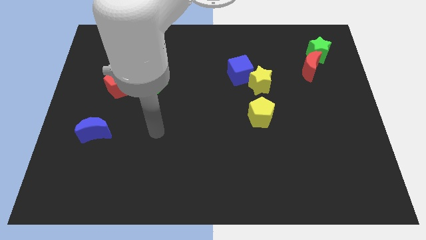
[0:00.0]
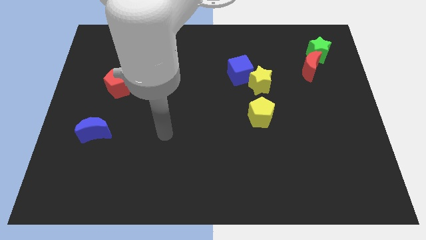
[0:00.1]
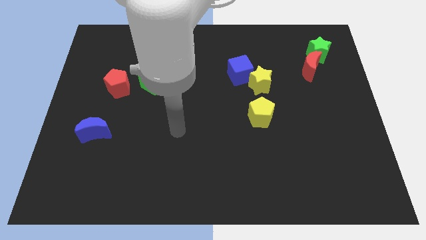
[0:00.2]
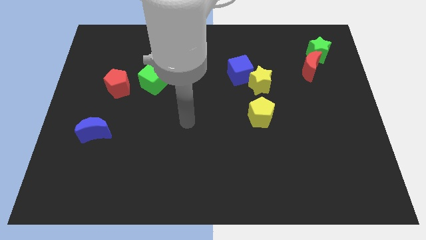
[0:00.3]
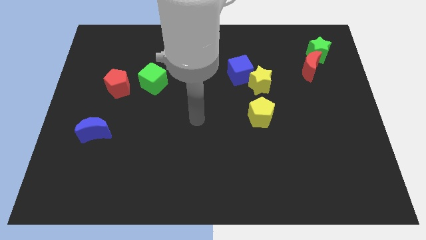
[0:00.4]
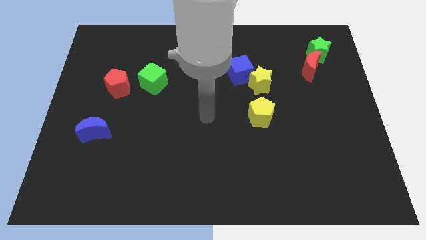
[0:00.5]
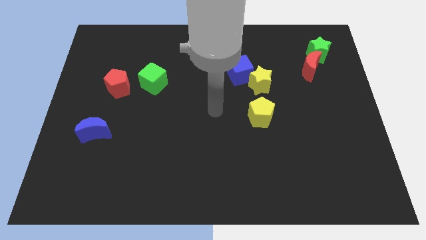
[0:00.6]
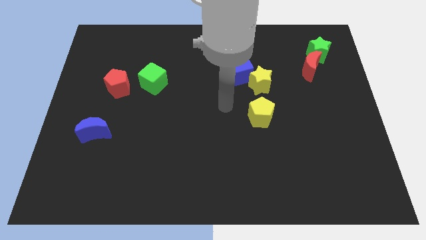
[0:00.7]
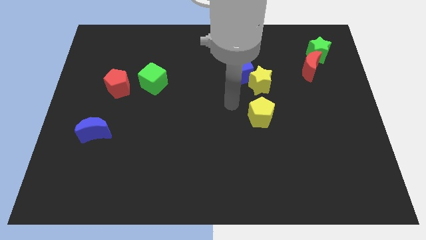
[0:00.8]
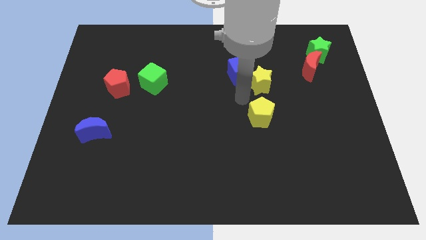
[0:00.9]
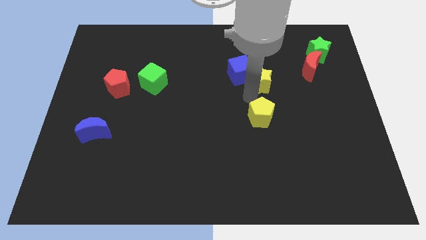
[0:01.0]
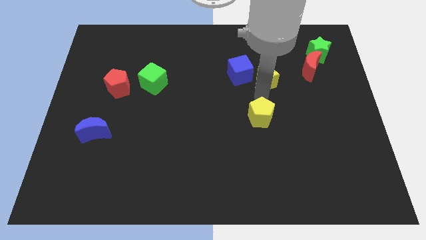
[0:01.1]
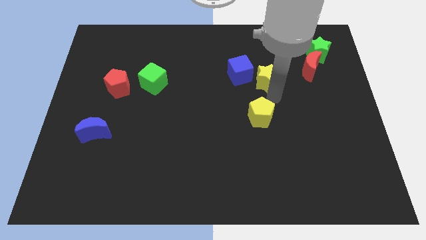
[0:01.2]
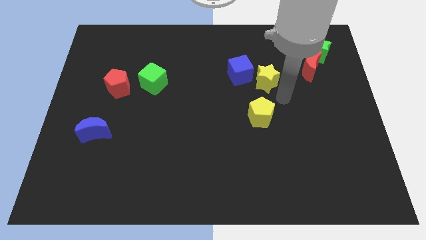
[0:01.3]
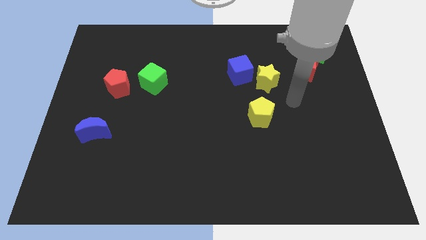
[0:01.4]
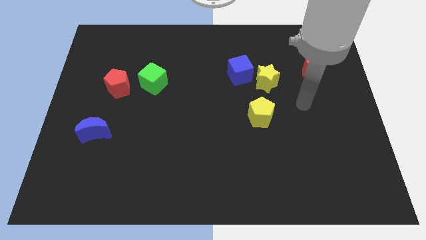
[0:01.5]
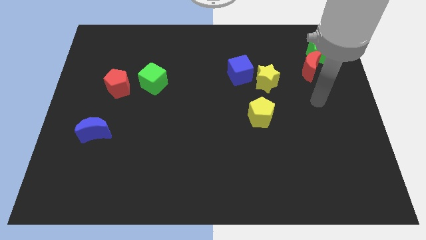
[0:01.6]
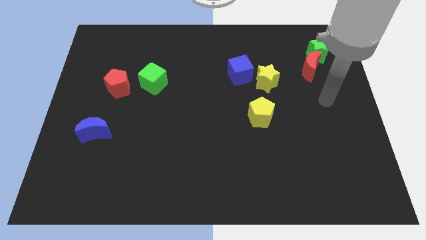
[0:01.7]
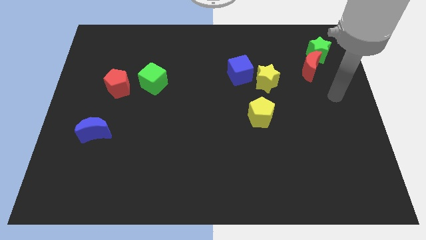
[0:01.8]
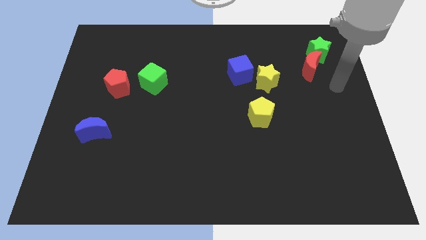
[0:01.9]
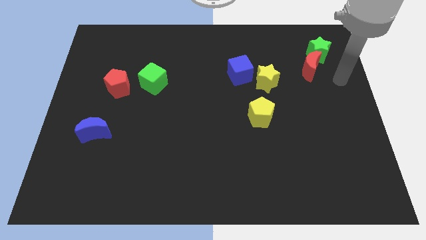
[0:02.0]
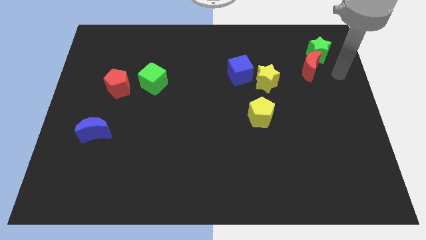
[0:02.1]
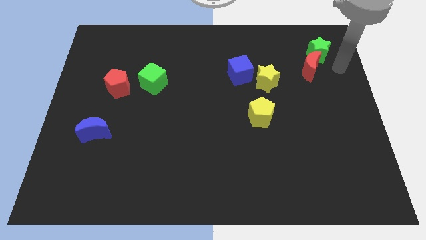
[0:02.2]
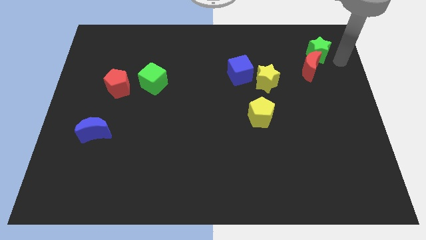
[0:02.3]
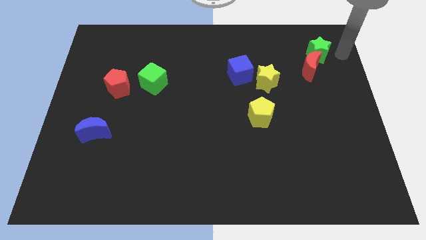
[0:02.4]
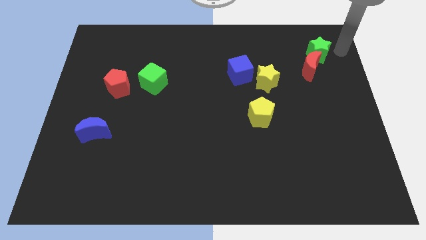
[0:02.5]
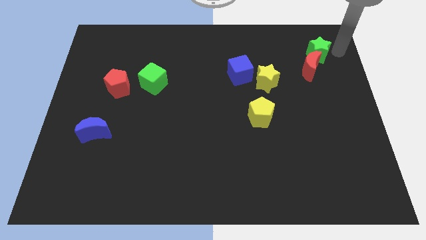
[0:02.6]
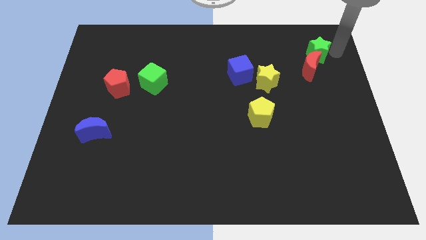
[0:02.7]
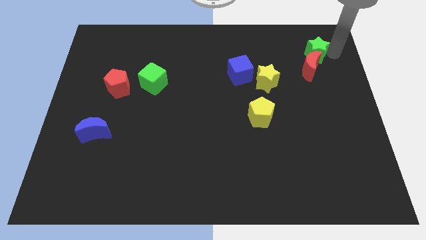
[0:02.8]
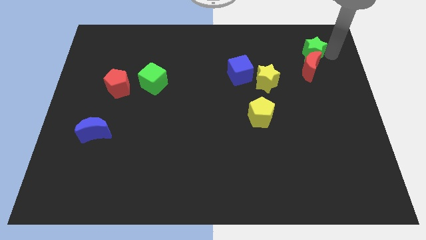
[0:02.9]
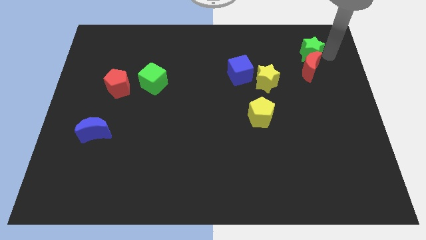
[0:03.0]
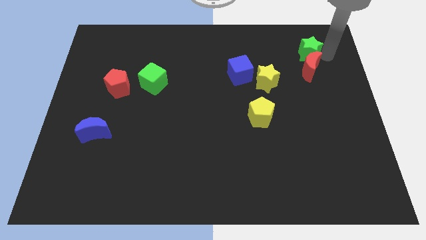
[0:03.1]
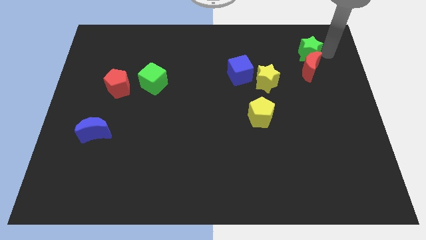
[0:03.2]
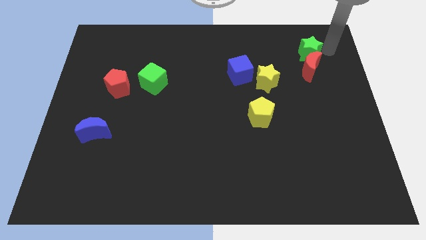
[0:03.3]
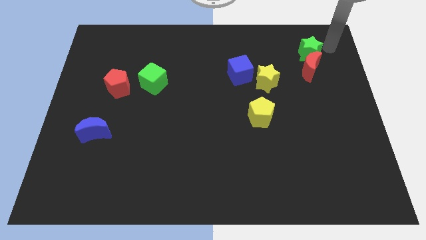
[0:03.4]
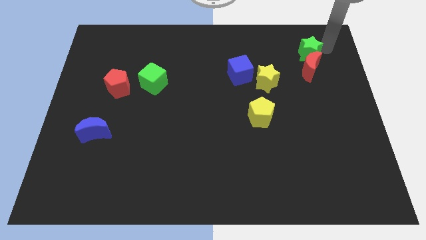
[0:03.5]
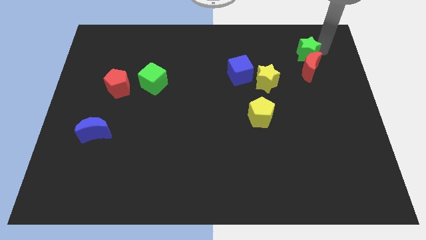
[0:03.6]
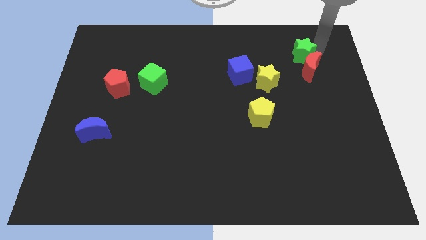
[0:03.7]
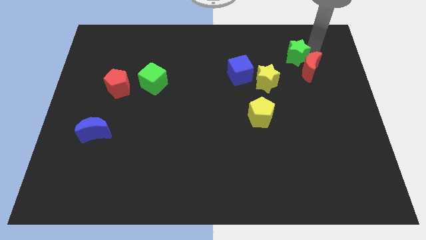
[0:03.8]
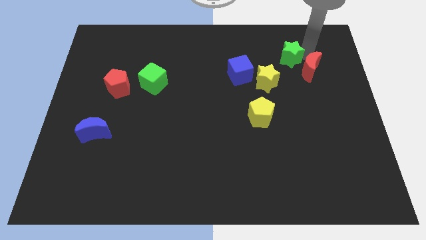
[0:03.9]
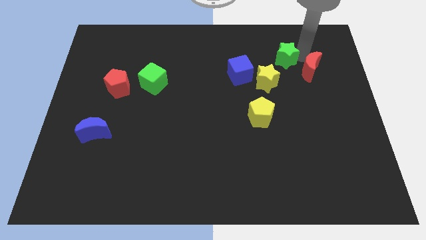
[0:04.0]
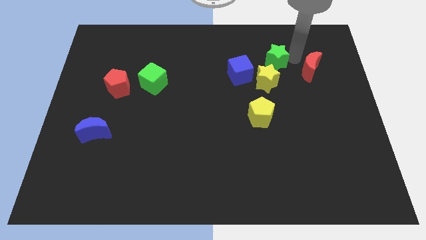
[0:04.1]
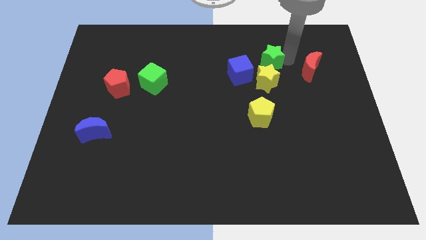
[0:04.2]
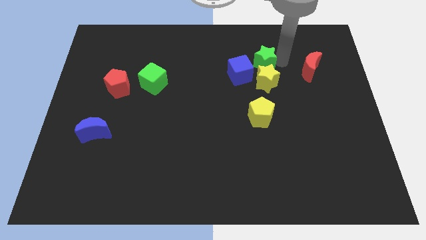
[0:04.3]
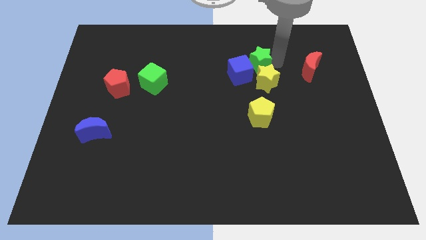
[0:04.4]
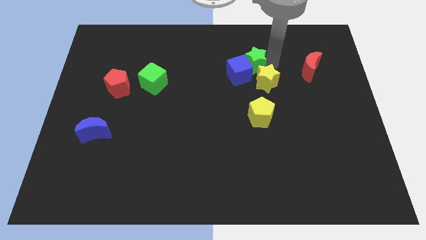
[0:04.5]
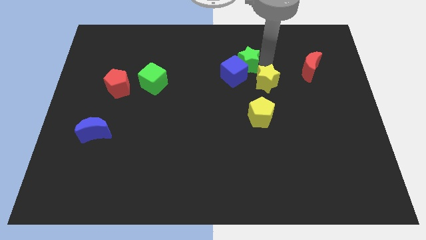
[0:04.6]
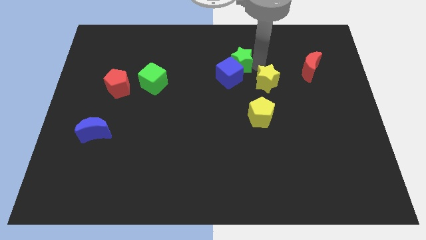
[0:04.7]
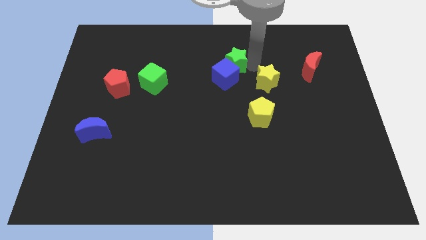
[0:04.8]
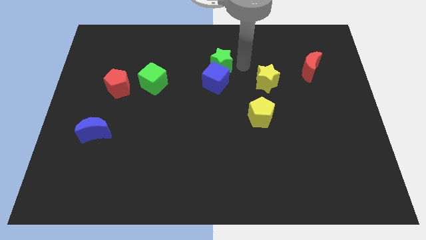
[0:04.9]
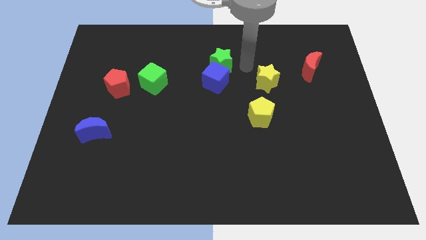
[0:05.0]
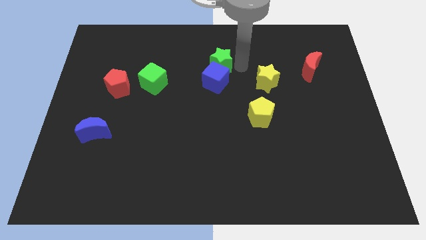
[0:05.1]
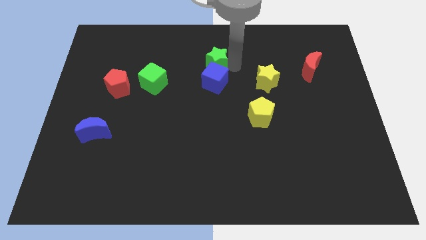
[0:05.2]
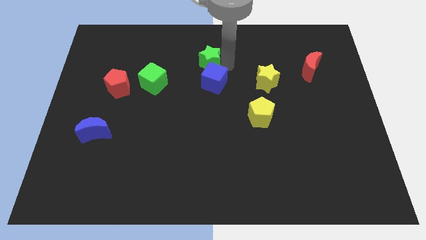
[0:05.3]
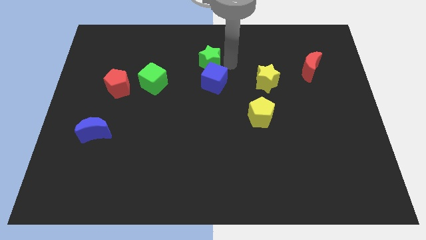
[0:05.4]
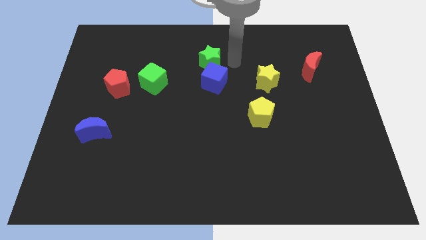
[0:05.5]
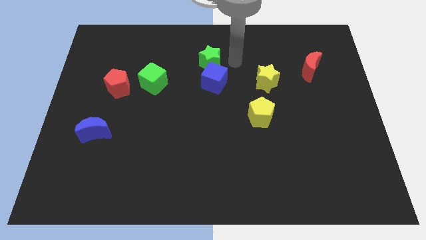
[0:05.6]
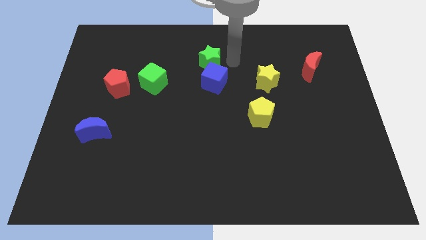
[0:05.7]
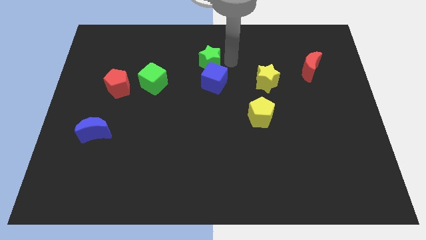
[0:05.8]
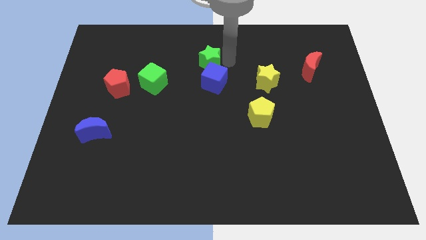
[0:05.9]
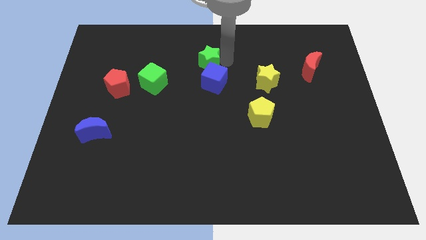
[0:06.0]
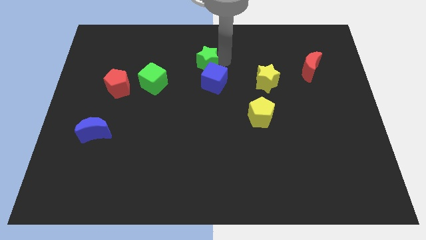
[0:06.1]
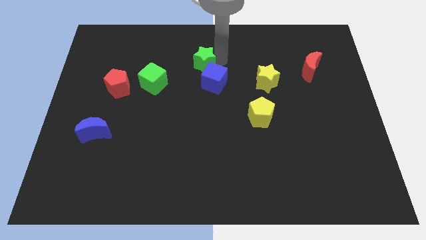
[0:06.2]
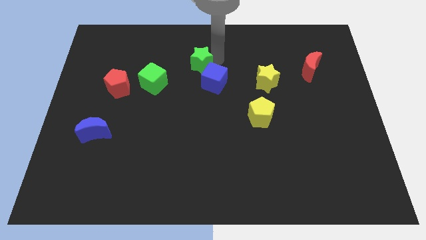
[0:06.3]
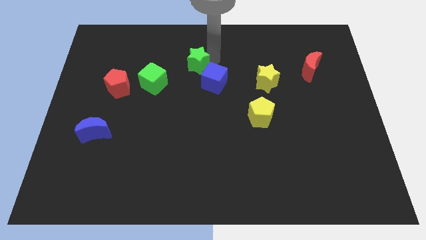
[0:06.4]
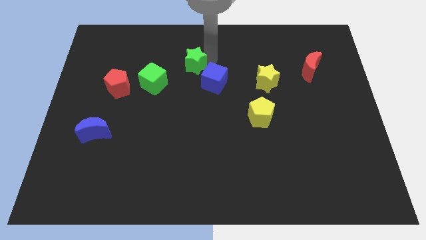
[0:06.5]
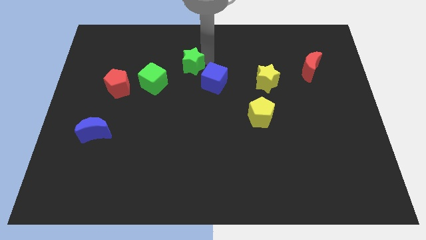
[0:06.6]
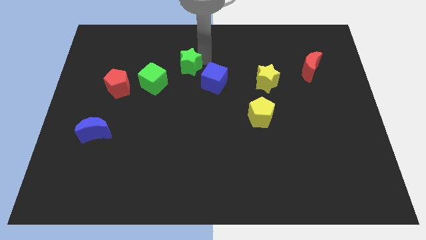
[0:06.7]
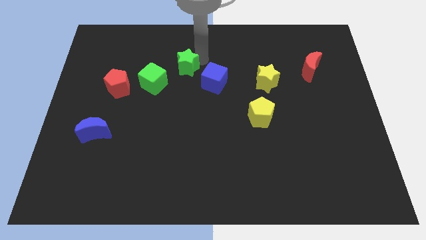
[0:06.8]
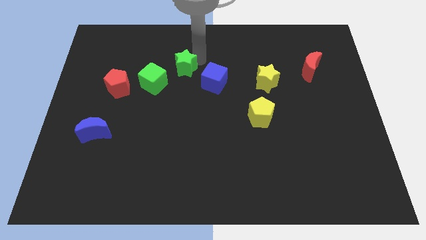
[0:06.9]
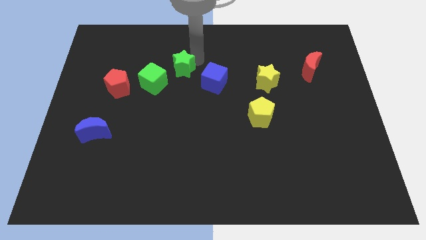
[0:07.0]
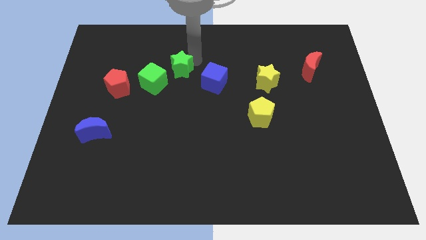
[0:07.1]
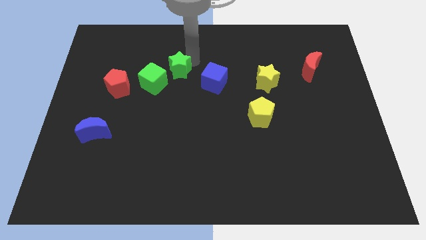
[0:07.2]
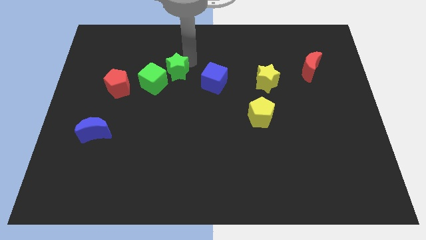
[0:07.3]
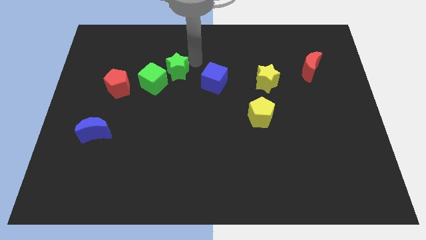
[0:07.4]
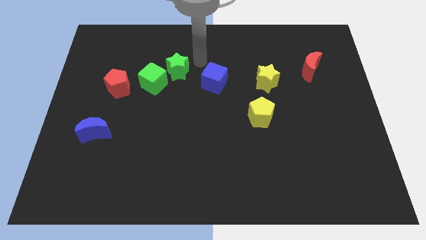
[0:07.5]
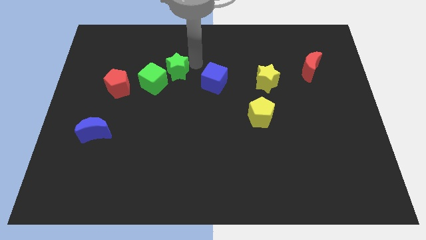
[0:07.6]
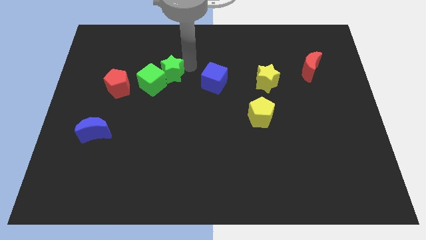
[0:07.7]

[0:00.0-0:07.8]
slide the green star to the green cube
